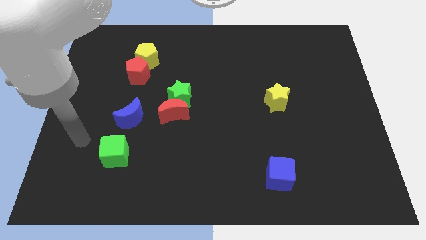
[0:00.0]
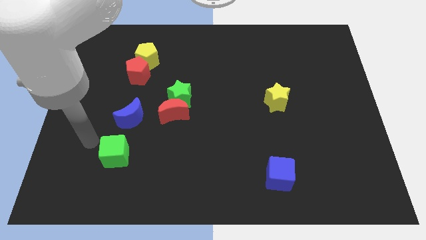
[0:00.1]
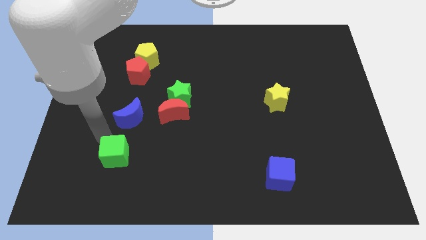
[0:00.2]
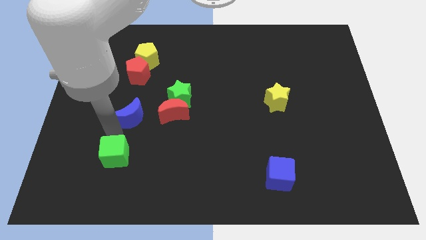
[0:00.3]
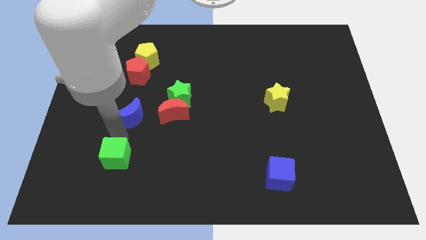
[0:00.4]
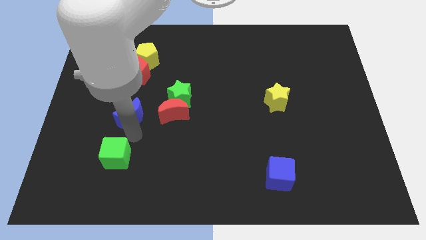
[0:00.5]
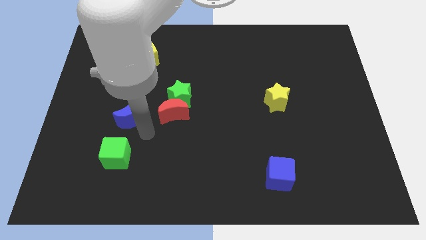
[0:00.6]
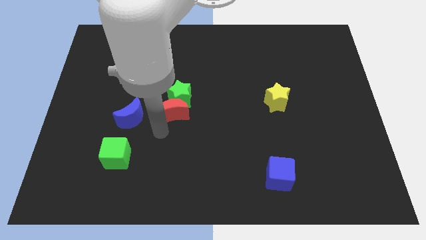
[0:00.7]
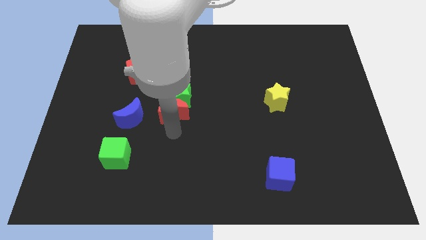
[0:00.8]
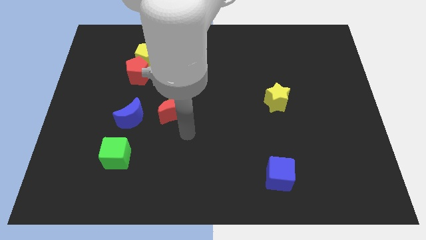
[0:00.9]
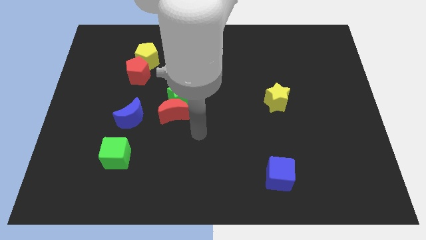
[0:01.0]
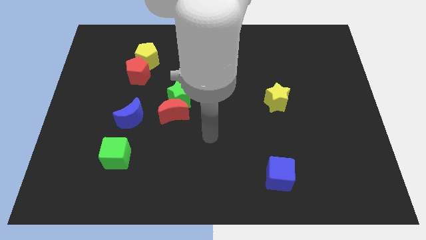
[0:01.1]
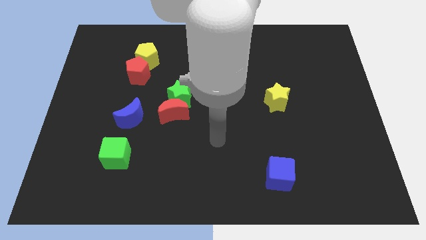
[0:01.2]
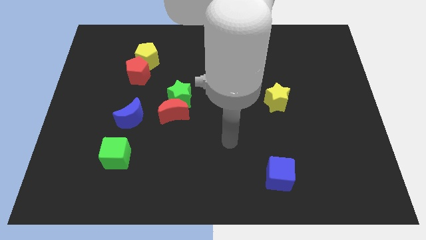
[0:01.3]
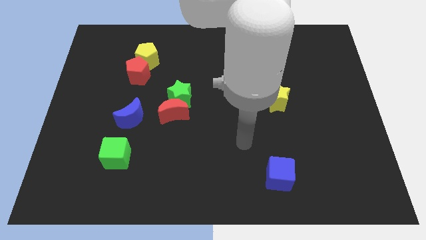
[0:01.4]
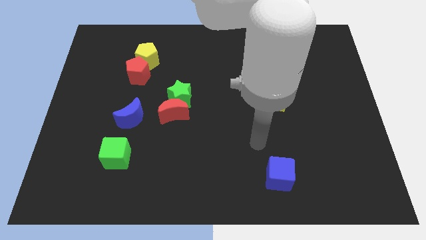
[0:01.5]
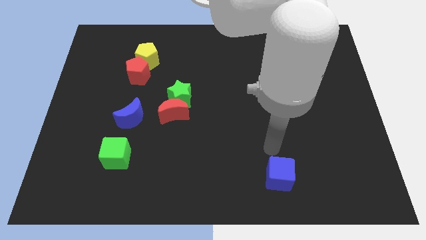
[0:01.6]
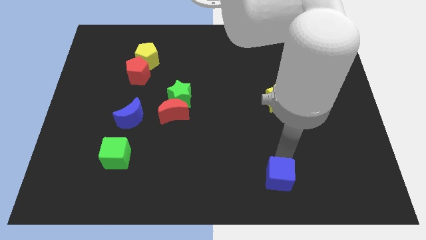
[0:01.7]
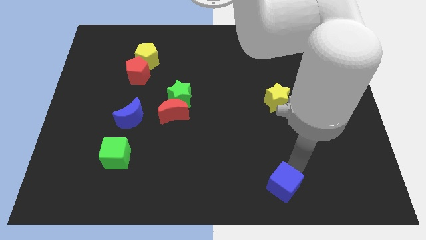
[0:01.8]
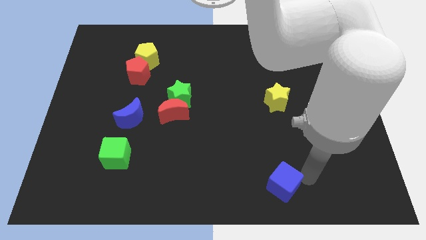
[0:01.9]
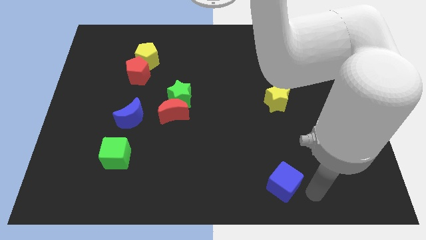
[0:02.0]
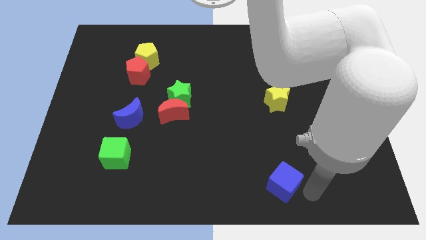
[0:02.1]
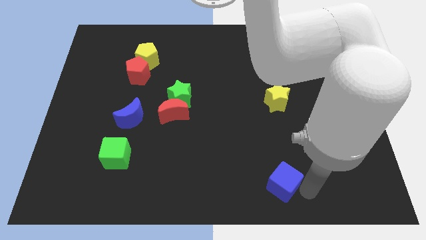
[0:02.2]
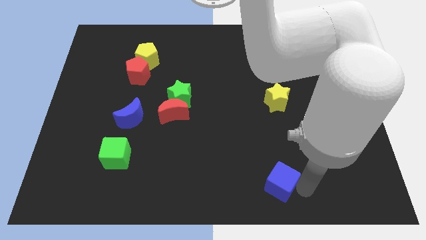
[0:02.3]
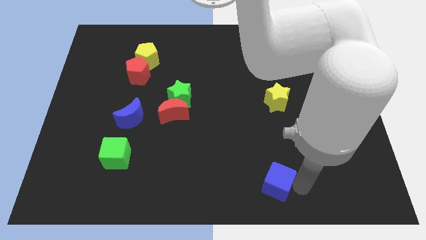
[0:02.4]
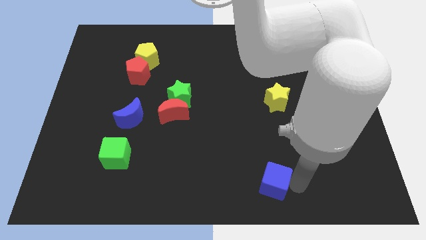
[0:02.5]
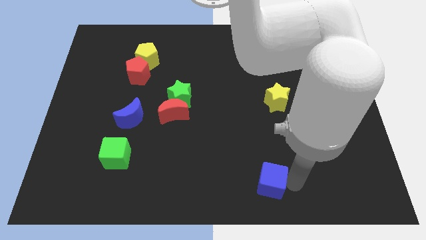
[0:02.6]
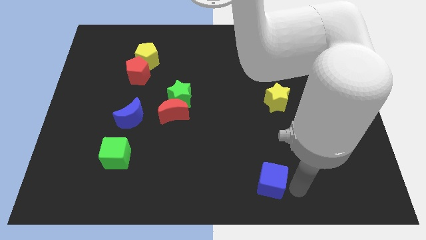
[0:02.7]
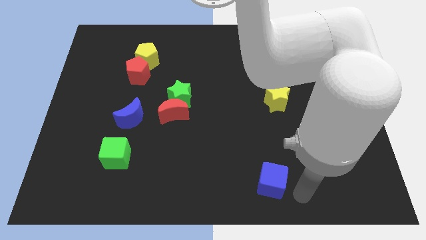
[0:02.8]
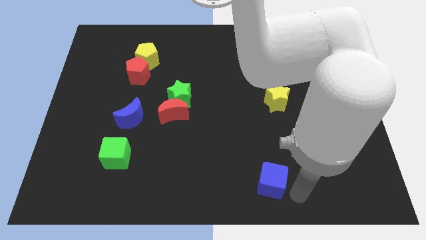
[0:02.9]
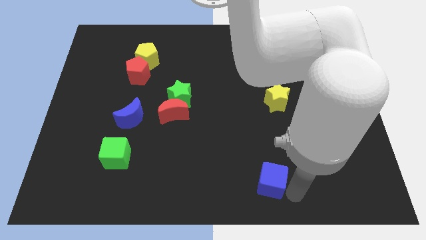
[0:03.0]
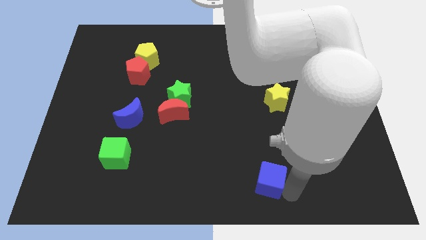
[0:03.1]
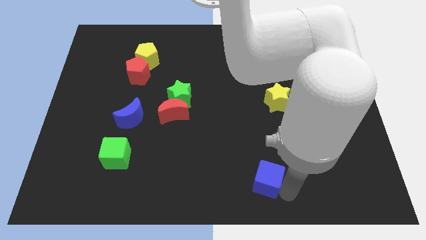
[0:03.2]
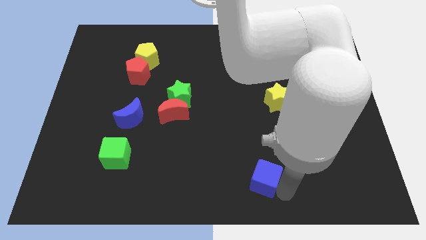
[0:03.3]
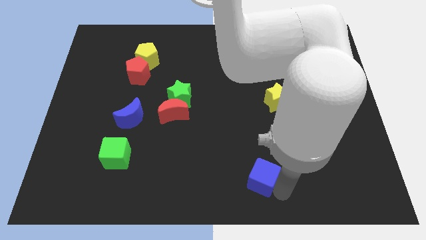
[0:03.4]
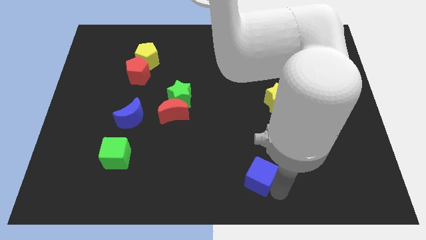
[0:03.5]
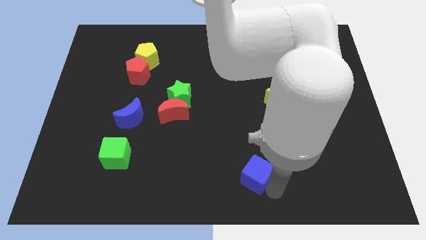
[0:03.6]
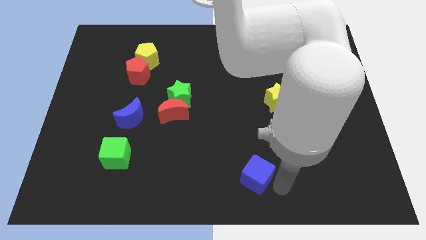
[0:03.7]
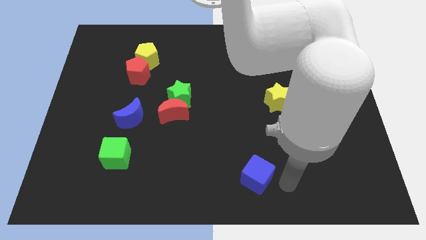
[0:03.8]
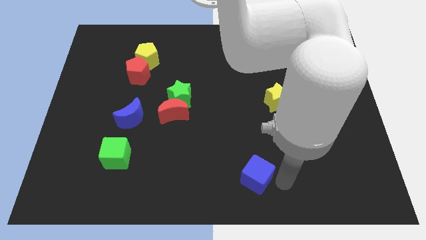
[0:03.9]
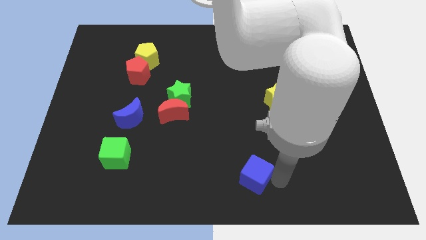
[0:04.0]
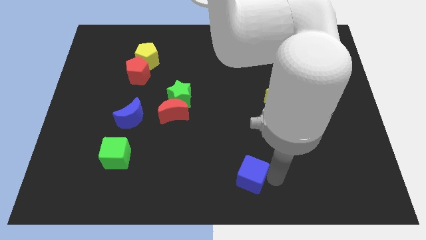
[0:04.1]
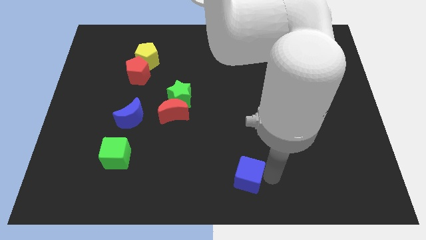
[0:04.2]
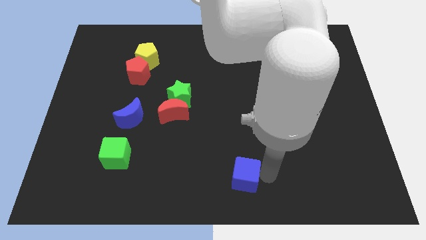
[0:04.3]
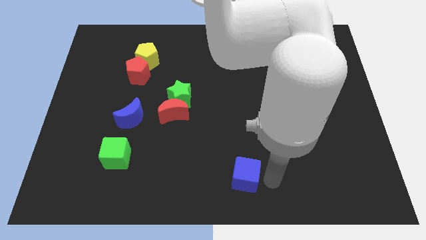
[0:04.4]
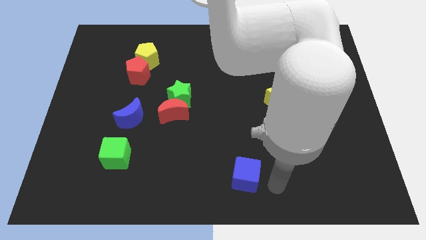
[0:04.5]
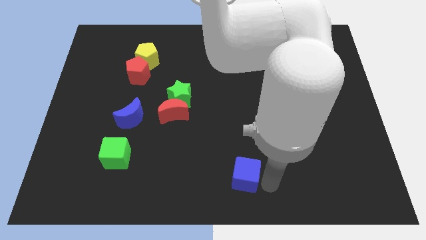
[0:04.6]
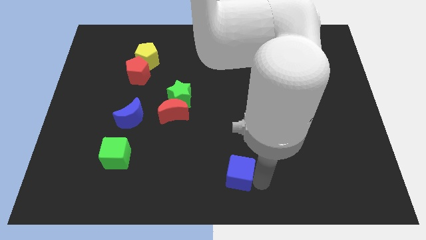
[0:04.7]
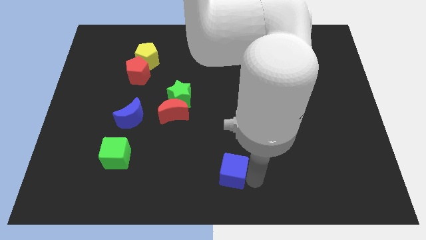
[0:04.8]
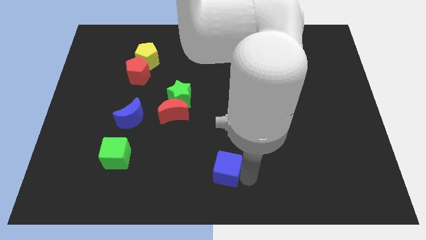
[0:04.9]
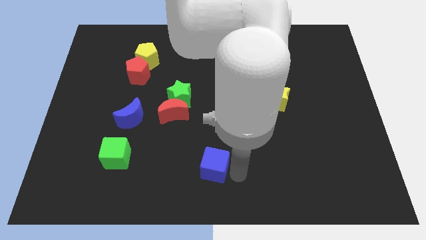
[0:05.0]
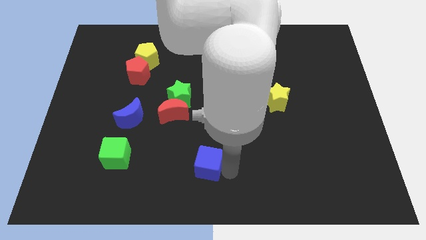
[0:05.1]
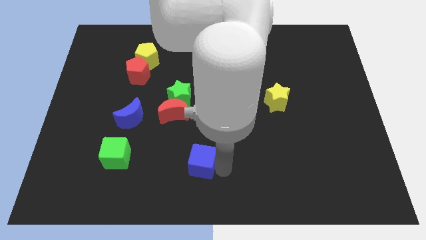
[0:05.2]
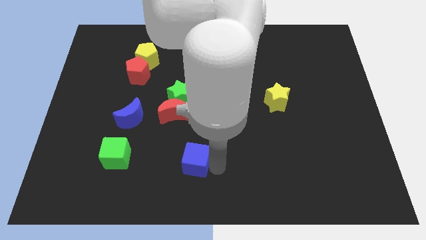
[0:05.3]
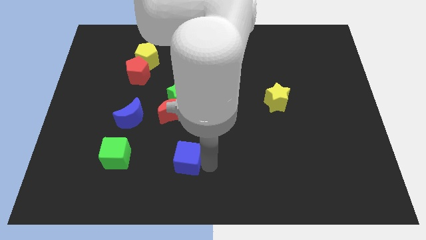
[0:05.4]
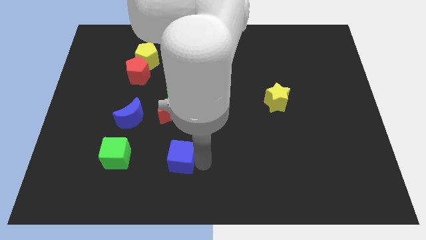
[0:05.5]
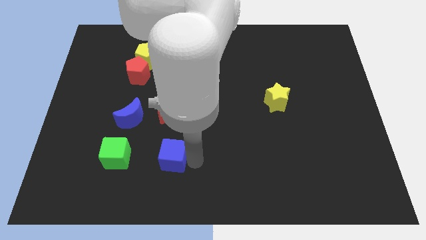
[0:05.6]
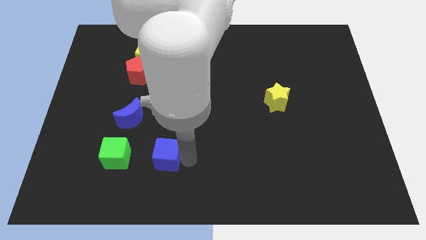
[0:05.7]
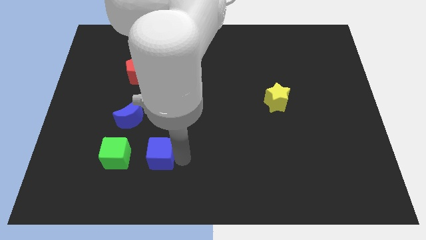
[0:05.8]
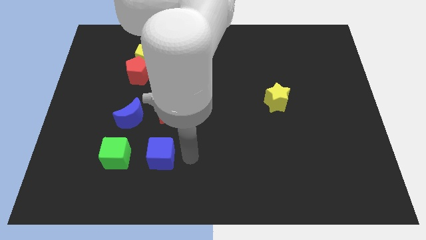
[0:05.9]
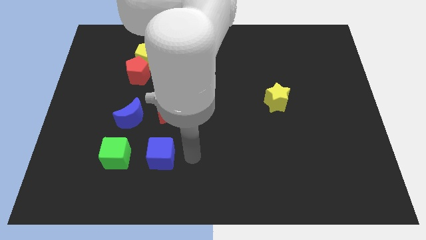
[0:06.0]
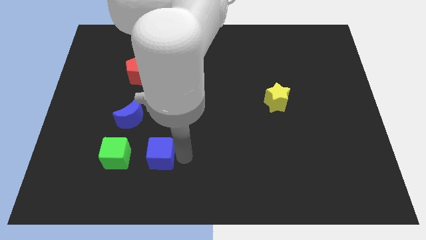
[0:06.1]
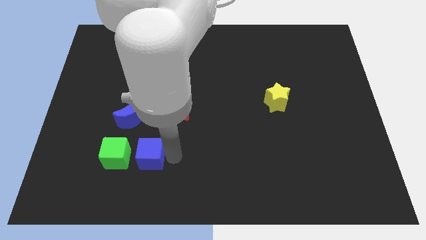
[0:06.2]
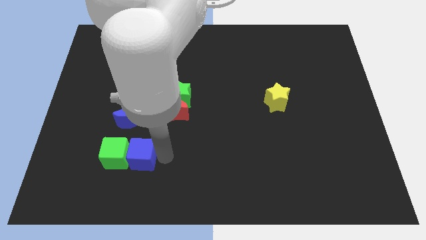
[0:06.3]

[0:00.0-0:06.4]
move the blue cube next to the green cube

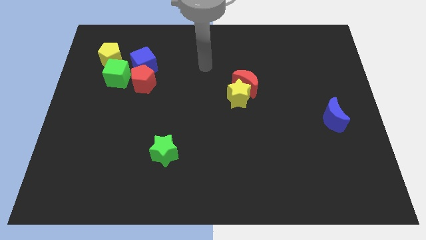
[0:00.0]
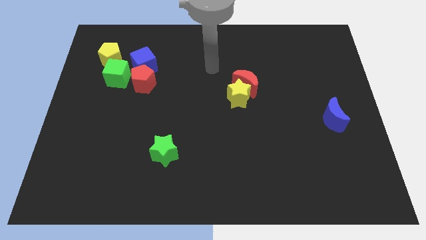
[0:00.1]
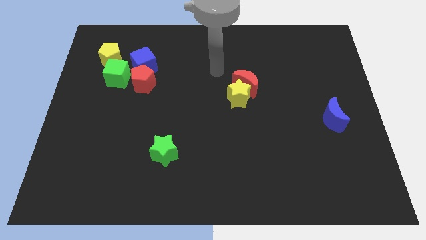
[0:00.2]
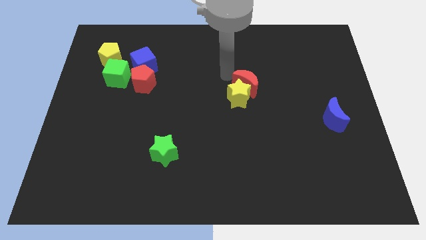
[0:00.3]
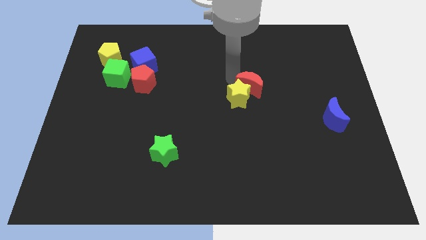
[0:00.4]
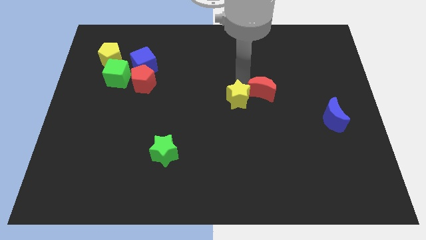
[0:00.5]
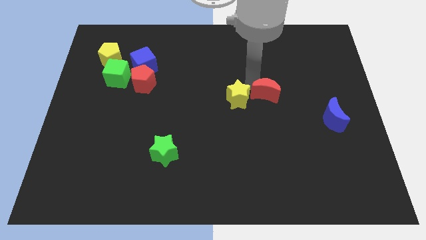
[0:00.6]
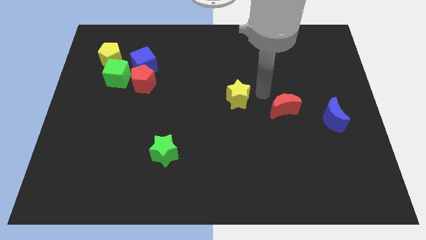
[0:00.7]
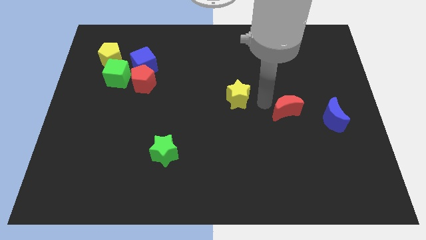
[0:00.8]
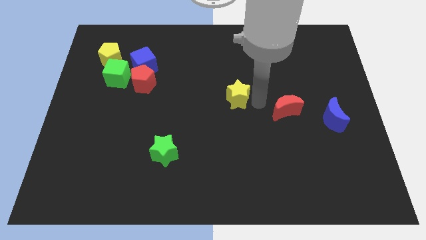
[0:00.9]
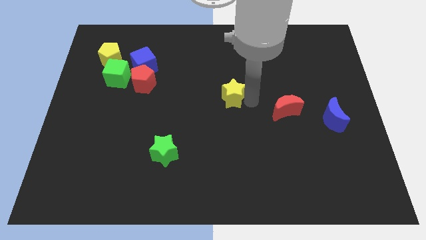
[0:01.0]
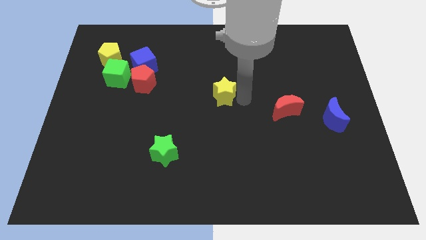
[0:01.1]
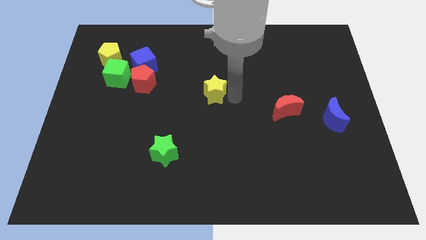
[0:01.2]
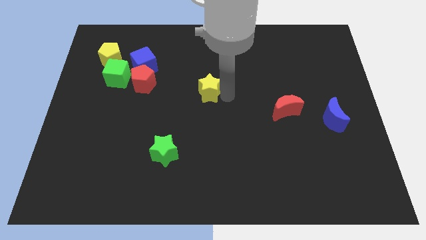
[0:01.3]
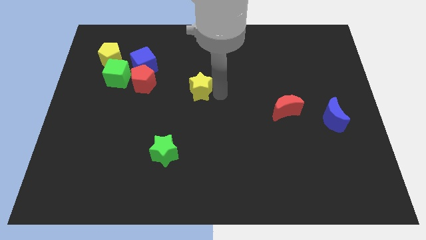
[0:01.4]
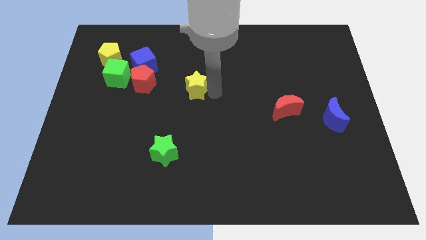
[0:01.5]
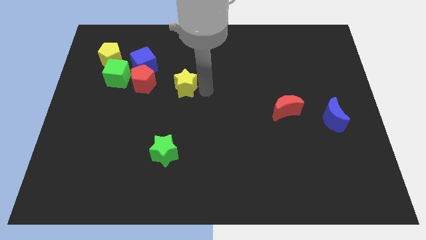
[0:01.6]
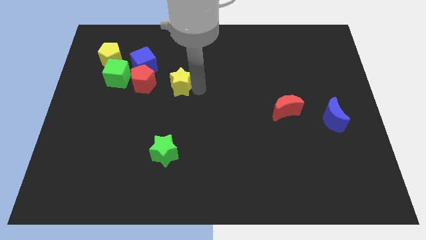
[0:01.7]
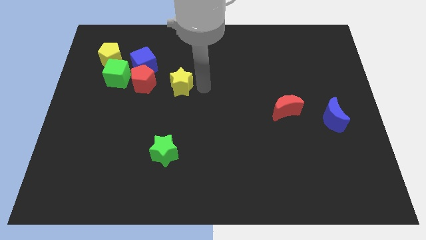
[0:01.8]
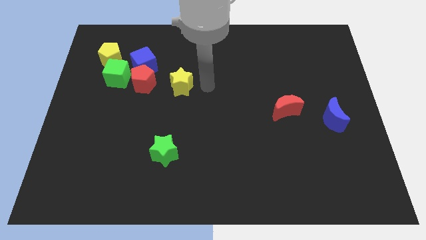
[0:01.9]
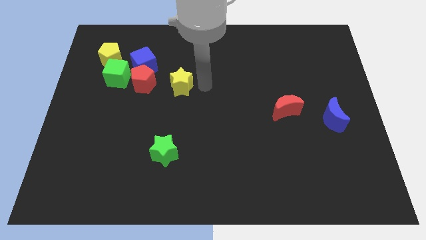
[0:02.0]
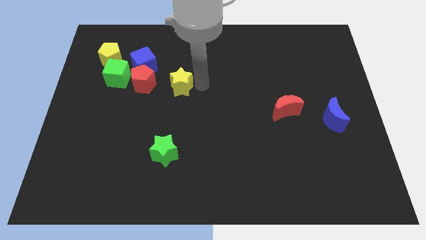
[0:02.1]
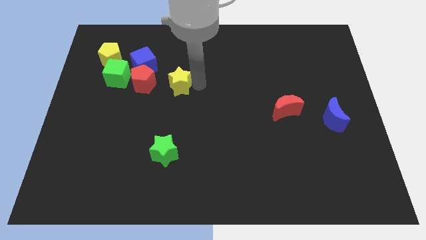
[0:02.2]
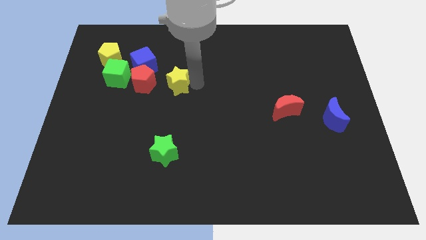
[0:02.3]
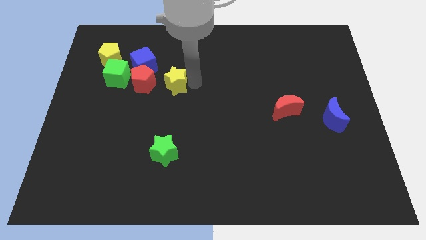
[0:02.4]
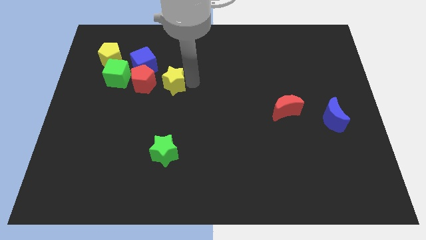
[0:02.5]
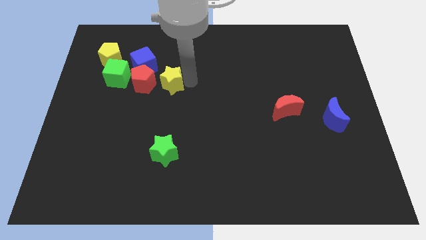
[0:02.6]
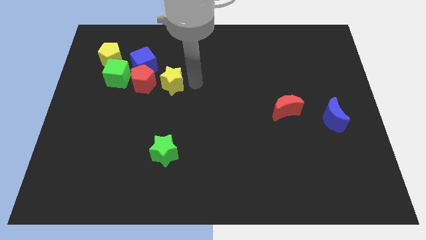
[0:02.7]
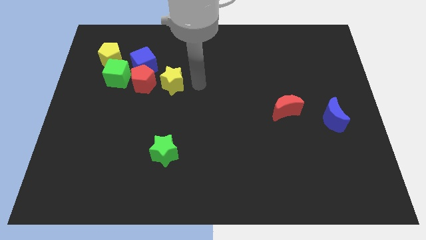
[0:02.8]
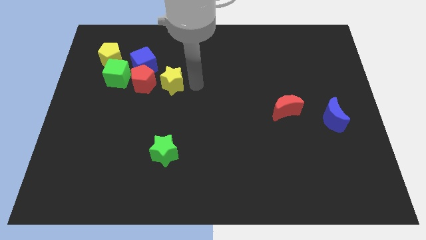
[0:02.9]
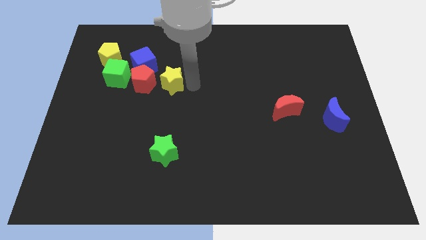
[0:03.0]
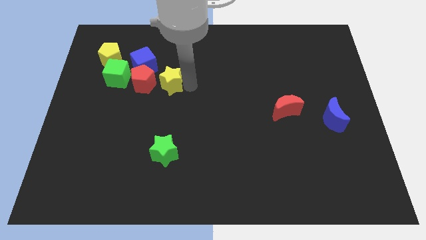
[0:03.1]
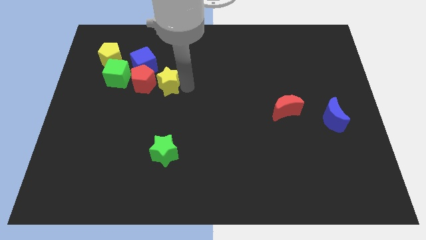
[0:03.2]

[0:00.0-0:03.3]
push the yellow star close to the red pentagon
